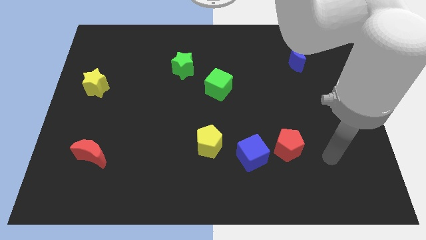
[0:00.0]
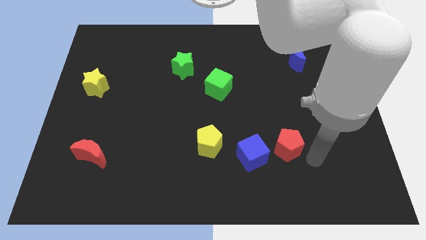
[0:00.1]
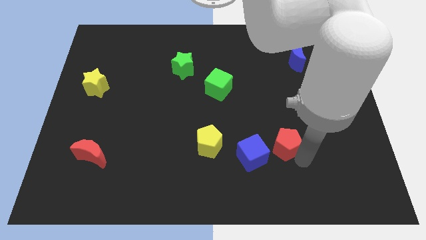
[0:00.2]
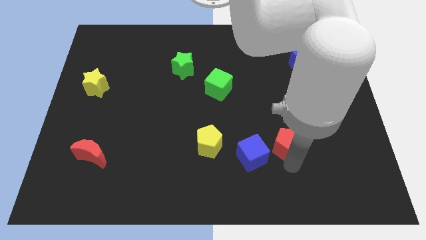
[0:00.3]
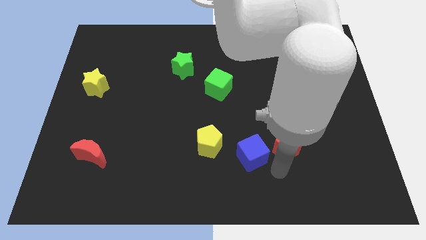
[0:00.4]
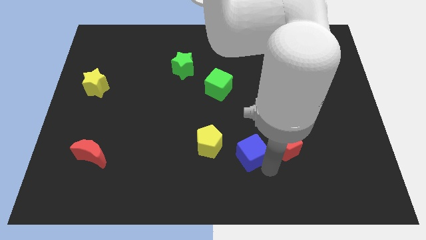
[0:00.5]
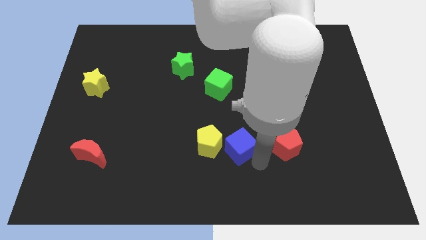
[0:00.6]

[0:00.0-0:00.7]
pull the red pentagon apart from the blue cube

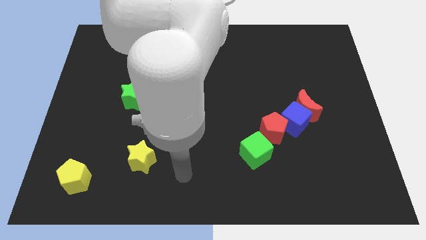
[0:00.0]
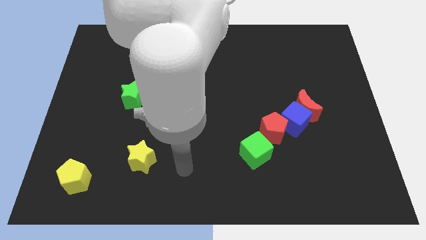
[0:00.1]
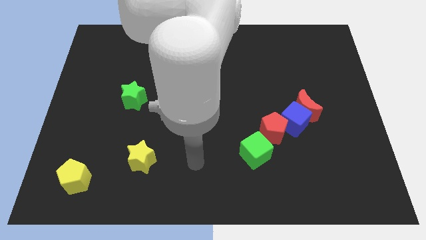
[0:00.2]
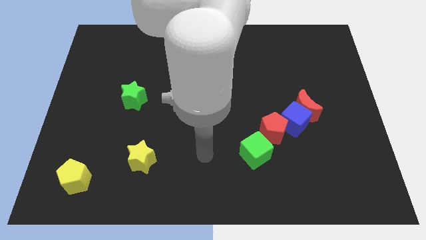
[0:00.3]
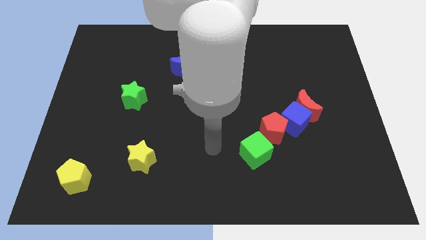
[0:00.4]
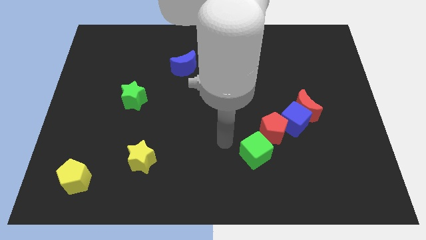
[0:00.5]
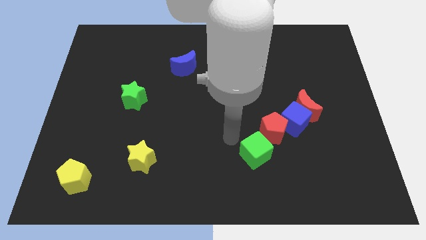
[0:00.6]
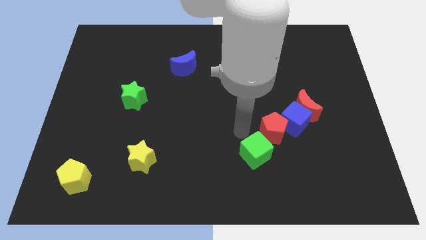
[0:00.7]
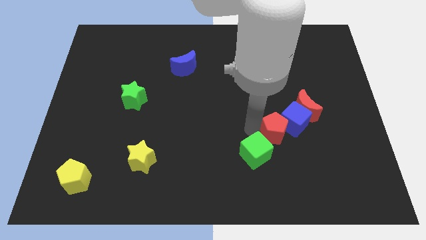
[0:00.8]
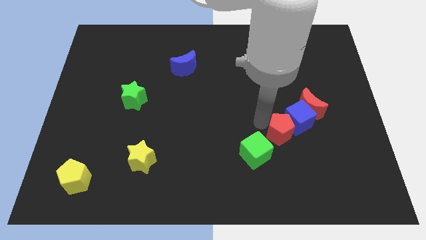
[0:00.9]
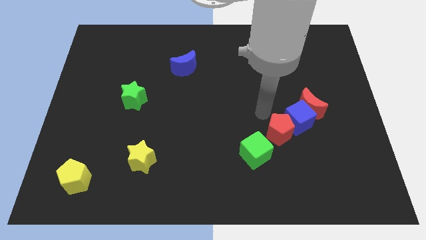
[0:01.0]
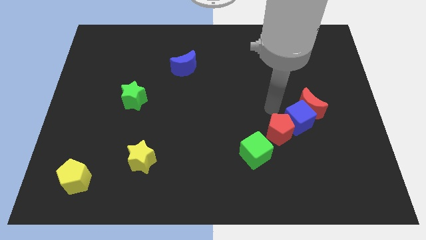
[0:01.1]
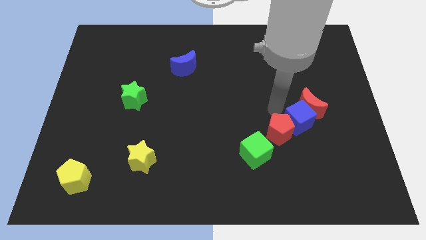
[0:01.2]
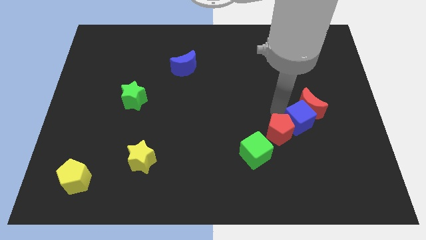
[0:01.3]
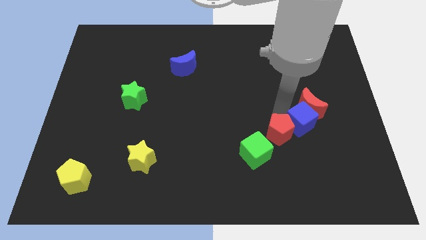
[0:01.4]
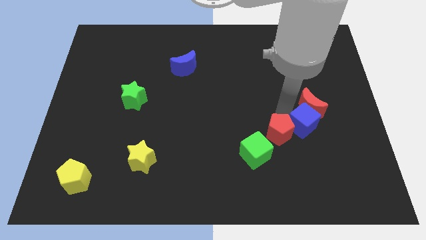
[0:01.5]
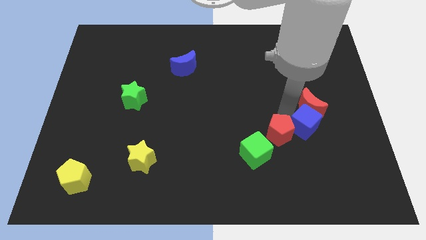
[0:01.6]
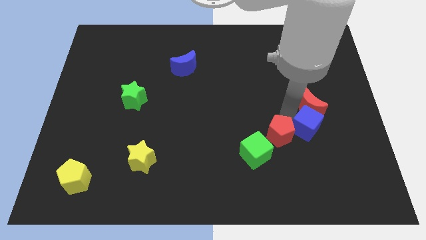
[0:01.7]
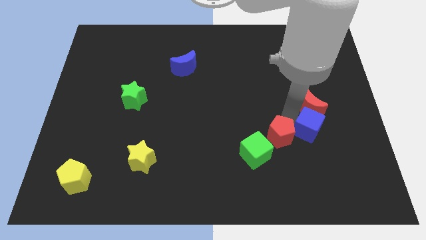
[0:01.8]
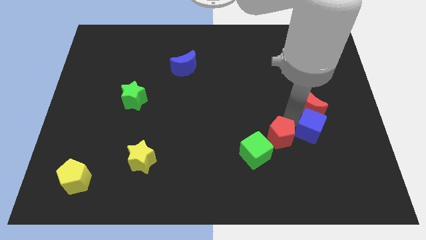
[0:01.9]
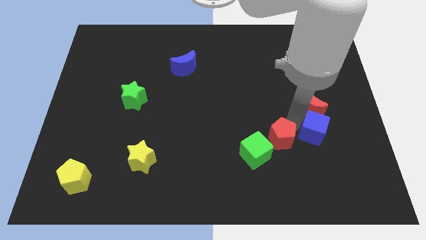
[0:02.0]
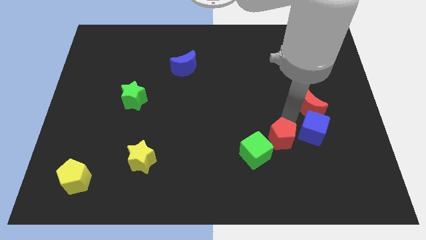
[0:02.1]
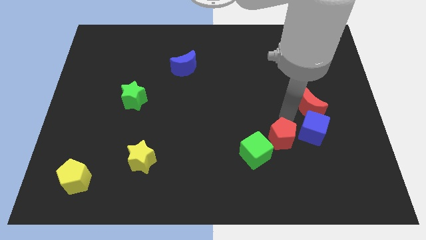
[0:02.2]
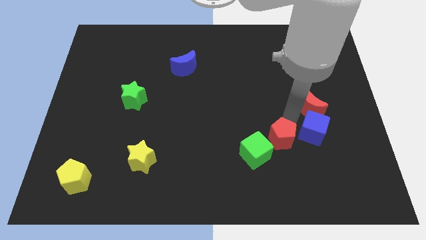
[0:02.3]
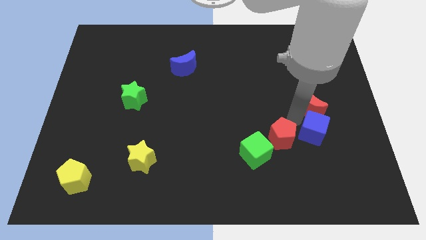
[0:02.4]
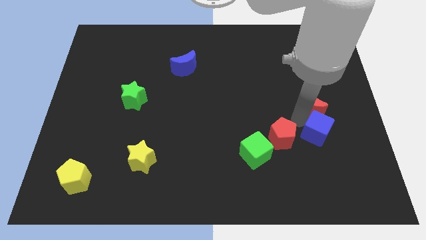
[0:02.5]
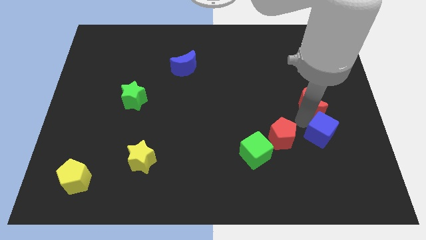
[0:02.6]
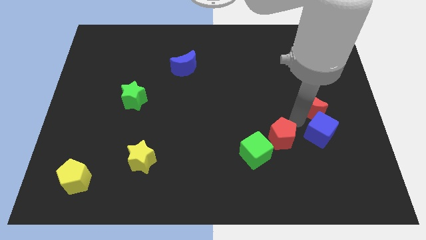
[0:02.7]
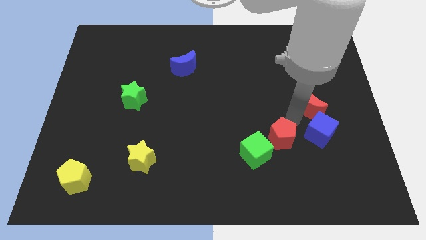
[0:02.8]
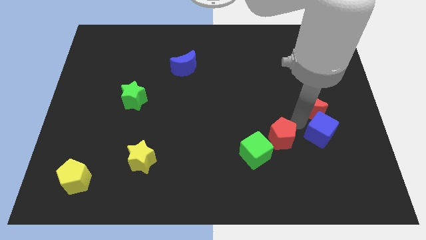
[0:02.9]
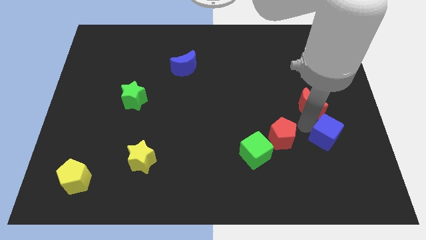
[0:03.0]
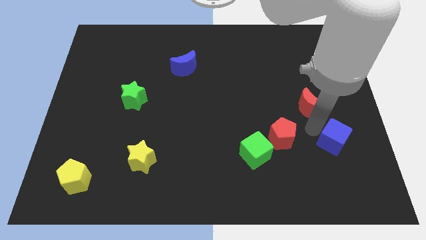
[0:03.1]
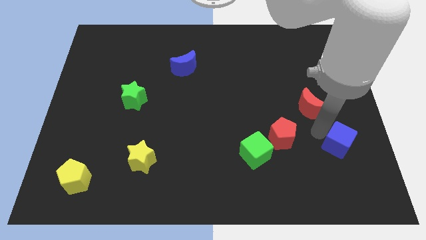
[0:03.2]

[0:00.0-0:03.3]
separate the blue cube from the red moon and red pentagon

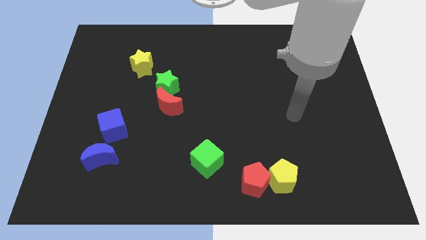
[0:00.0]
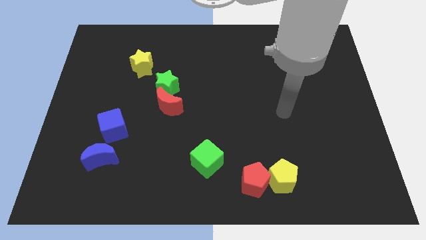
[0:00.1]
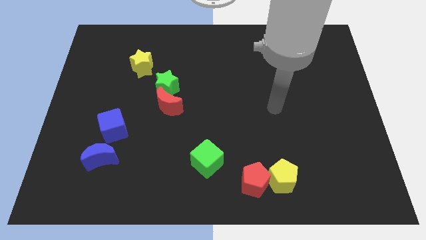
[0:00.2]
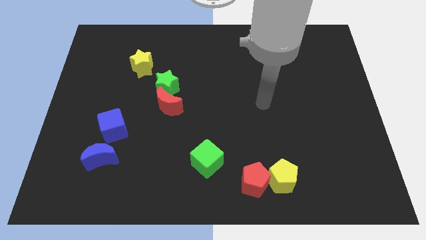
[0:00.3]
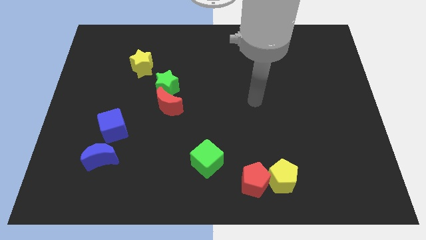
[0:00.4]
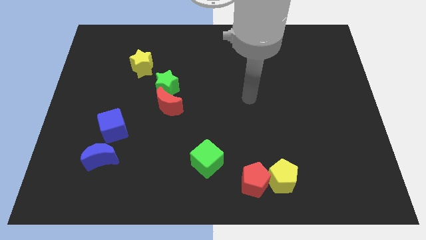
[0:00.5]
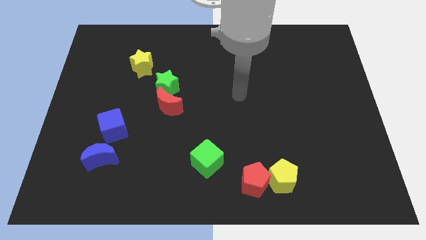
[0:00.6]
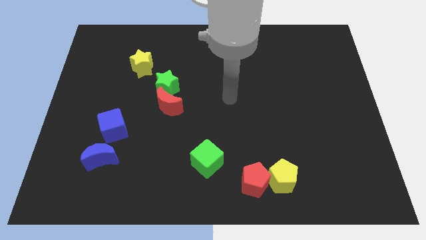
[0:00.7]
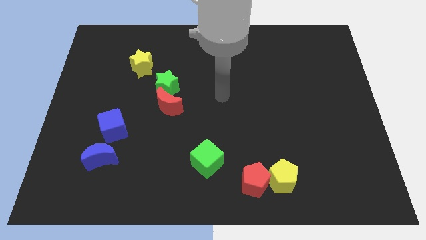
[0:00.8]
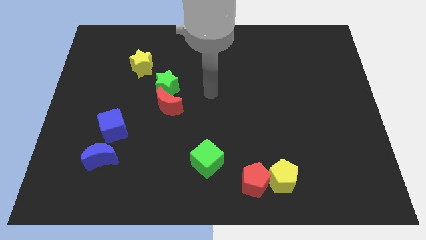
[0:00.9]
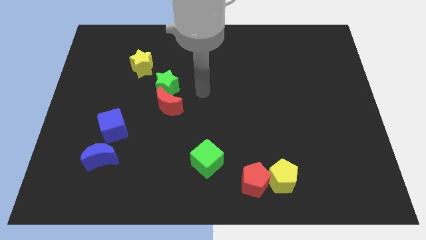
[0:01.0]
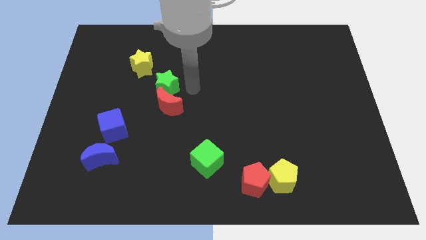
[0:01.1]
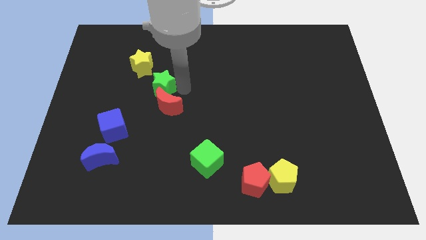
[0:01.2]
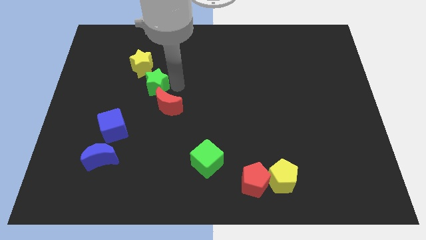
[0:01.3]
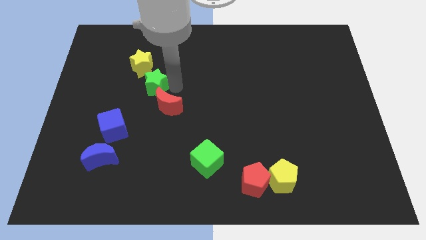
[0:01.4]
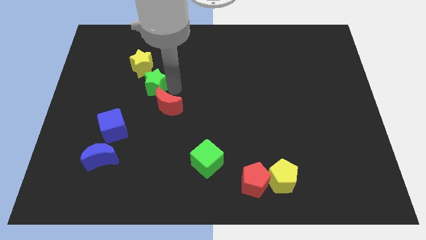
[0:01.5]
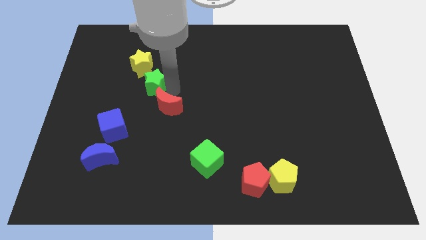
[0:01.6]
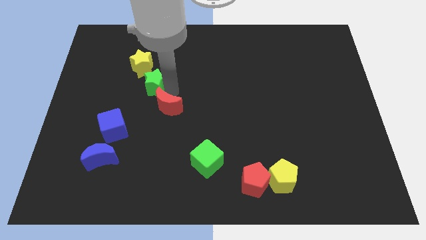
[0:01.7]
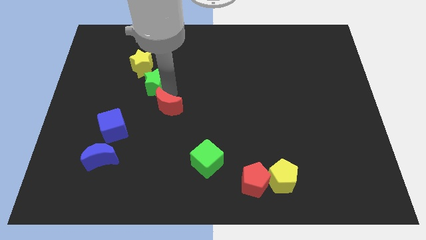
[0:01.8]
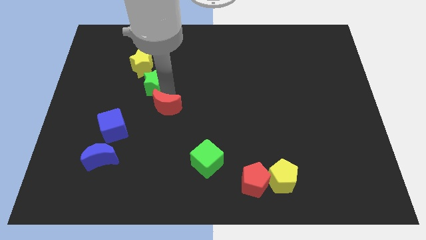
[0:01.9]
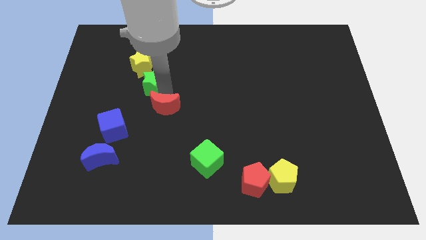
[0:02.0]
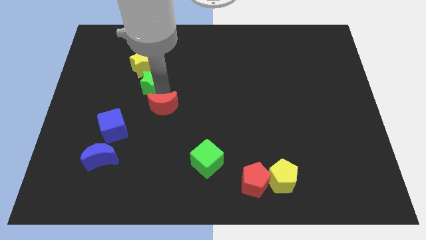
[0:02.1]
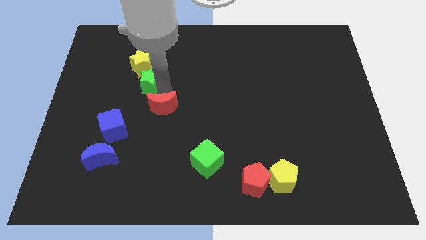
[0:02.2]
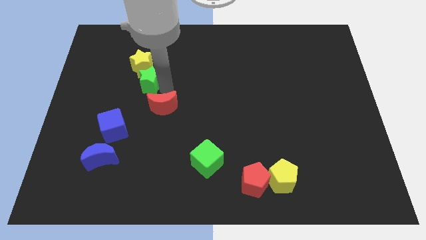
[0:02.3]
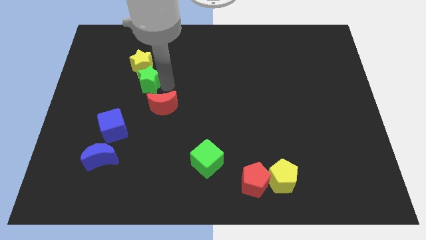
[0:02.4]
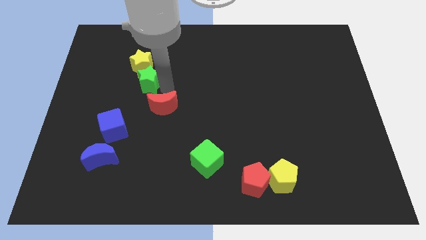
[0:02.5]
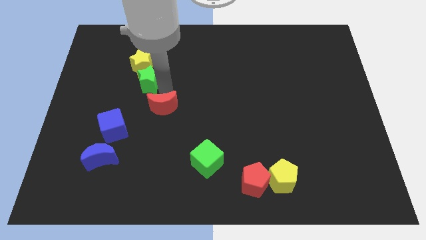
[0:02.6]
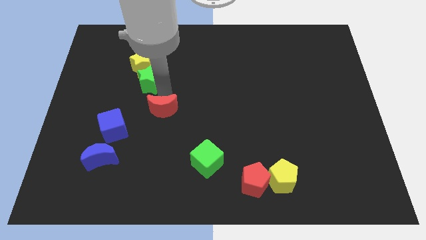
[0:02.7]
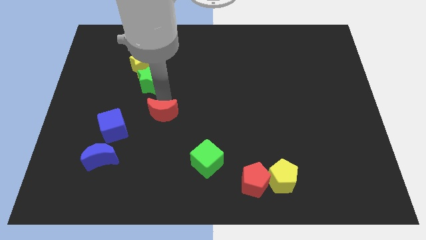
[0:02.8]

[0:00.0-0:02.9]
separate the red moon from the green star

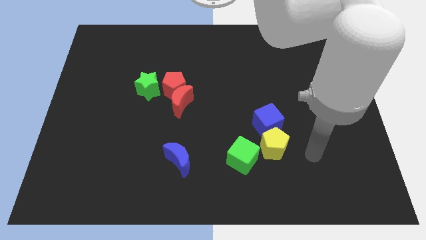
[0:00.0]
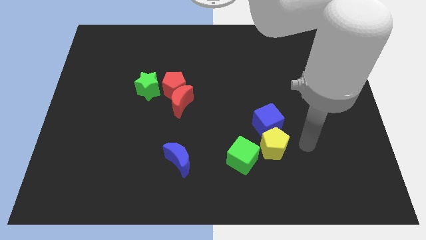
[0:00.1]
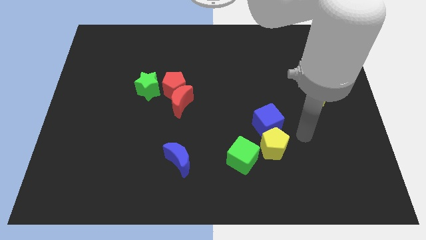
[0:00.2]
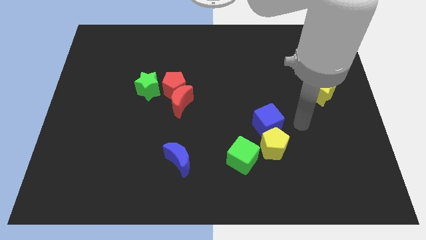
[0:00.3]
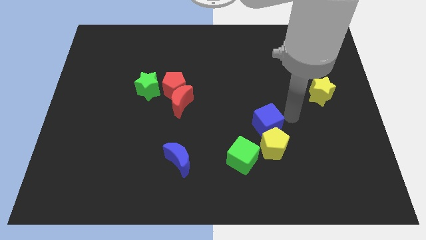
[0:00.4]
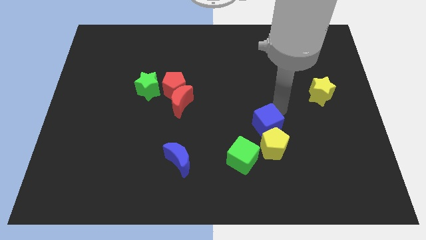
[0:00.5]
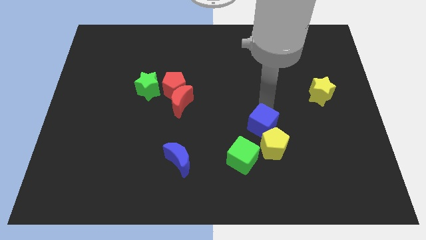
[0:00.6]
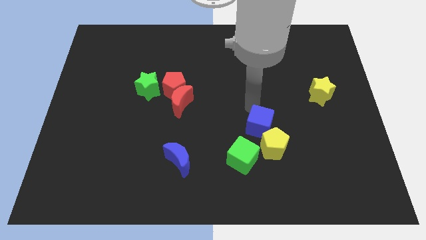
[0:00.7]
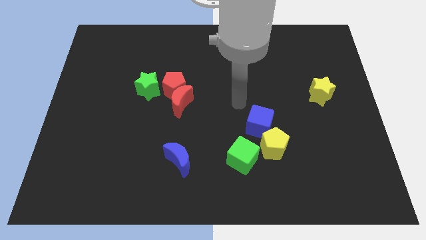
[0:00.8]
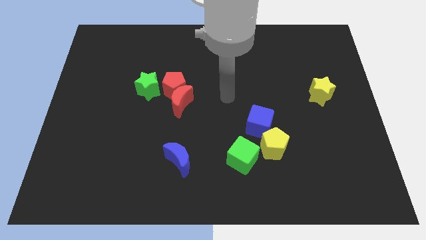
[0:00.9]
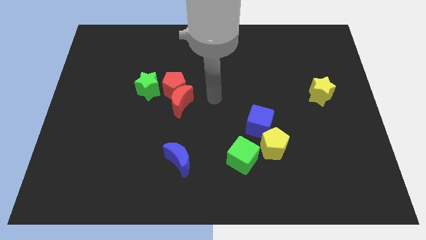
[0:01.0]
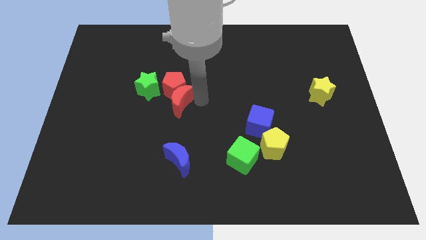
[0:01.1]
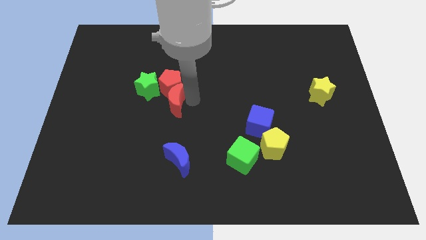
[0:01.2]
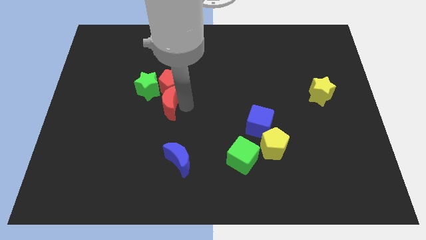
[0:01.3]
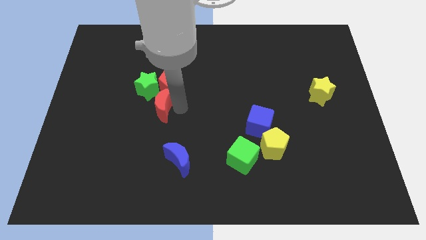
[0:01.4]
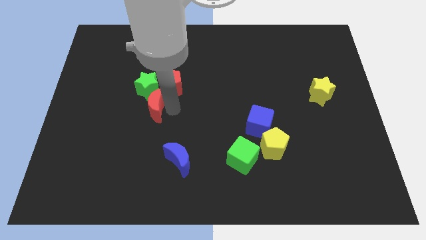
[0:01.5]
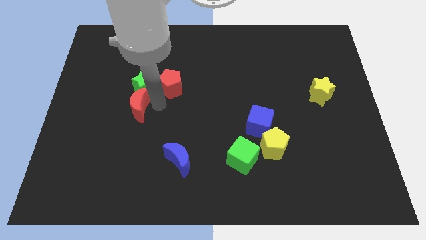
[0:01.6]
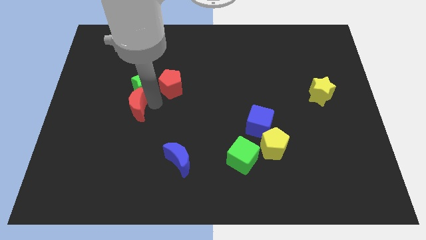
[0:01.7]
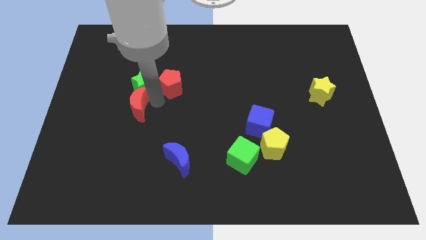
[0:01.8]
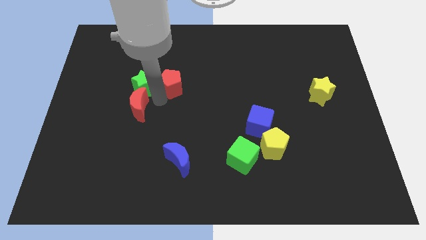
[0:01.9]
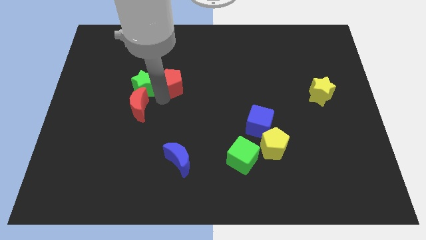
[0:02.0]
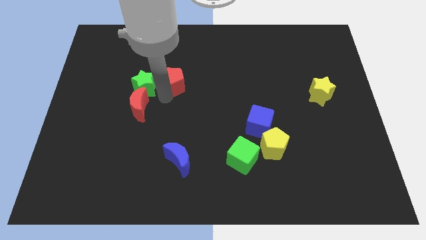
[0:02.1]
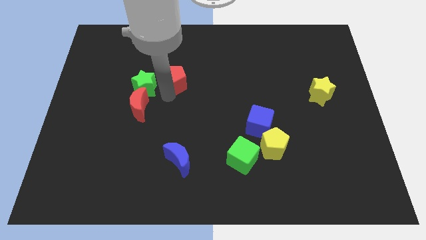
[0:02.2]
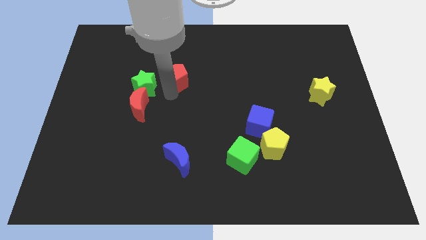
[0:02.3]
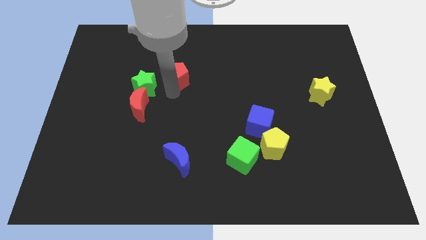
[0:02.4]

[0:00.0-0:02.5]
separate the red pentagon from the red moon and green star
